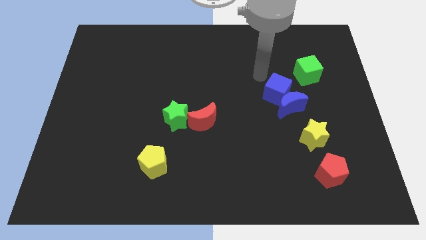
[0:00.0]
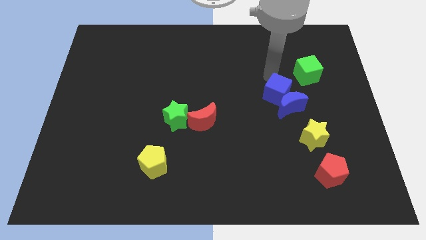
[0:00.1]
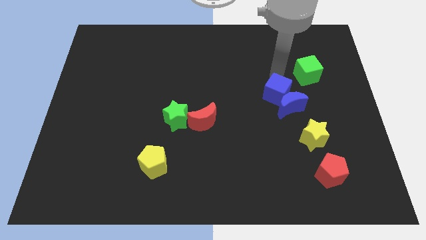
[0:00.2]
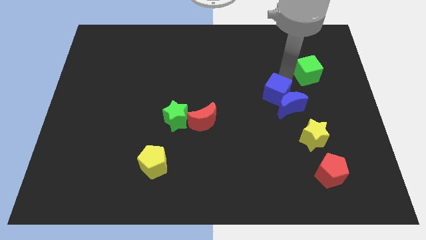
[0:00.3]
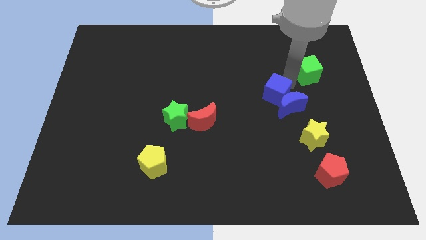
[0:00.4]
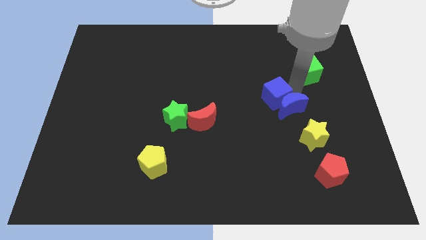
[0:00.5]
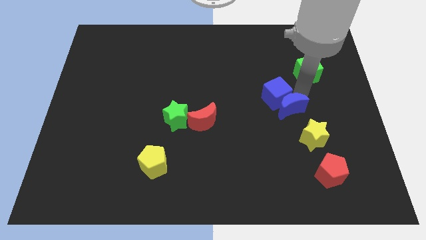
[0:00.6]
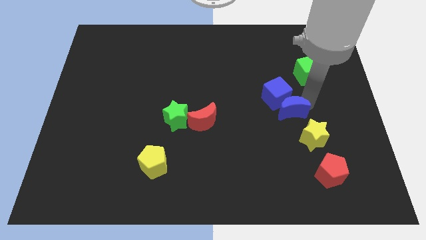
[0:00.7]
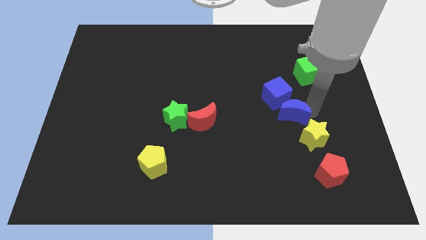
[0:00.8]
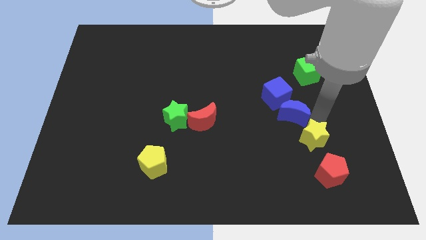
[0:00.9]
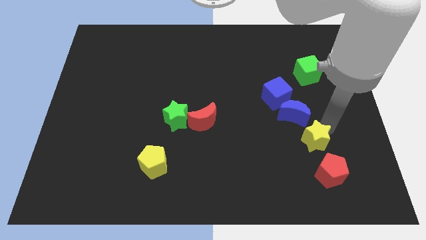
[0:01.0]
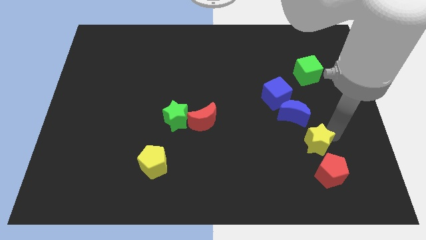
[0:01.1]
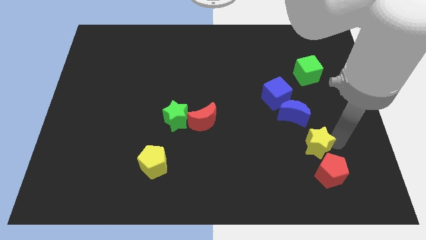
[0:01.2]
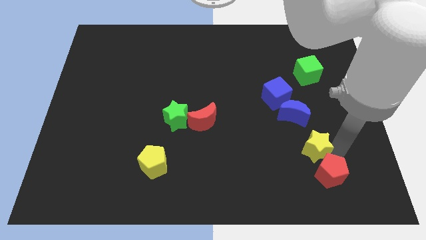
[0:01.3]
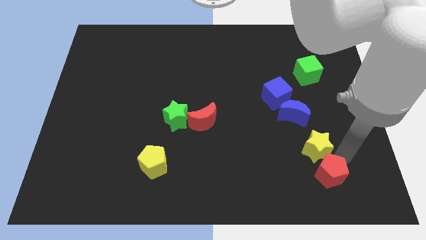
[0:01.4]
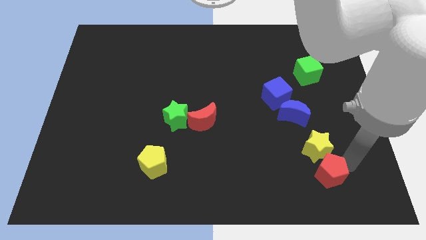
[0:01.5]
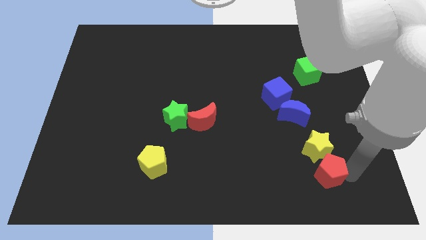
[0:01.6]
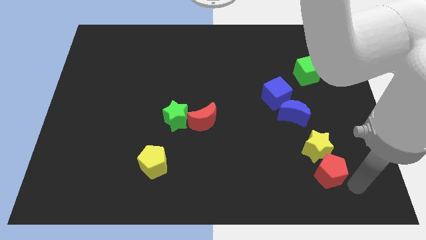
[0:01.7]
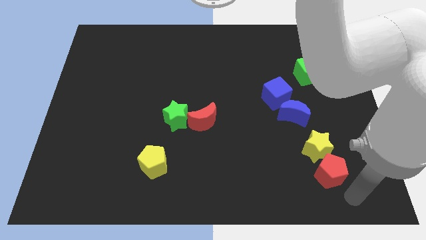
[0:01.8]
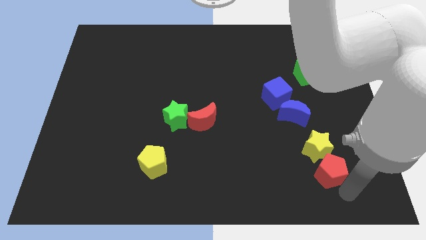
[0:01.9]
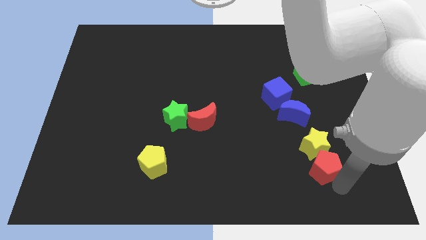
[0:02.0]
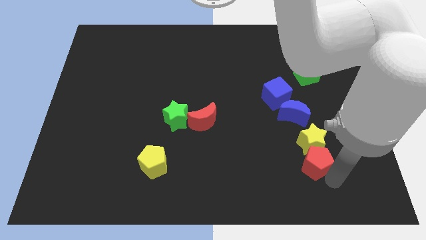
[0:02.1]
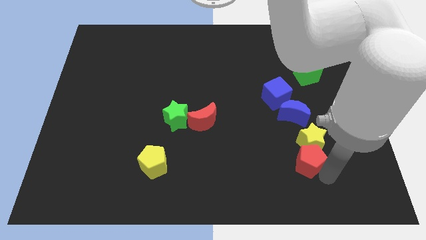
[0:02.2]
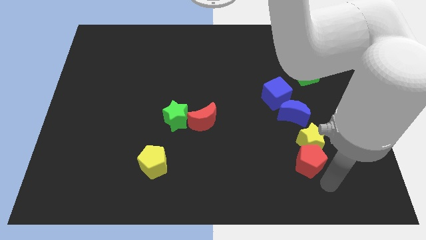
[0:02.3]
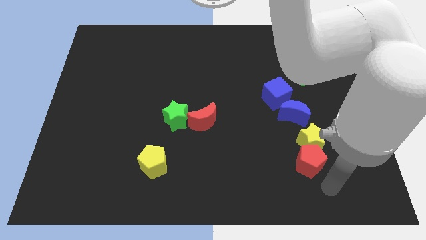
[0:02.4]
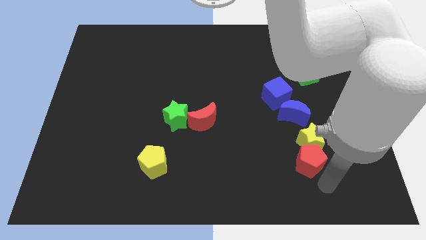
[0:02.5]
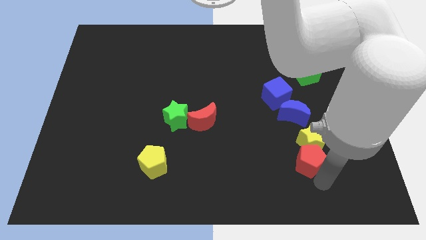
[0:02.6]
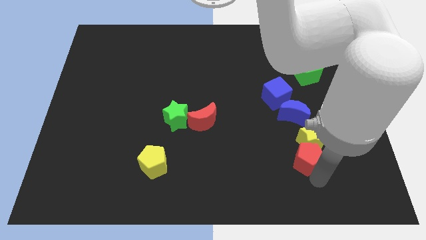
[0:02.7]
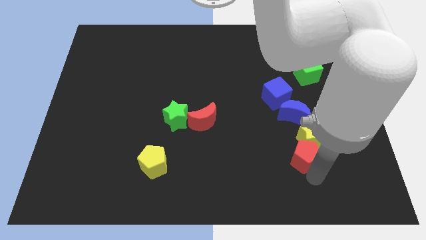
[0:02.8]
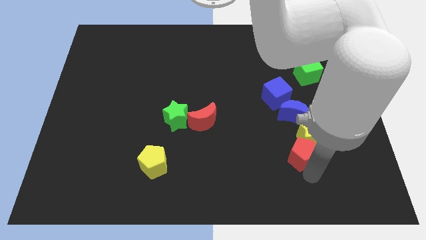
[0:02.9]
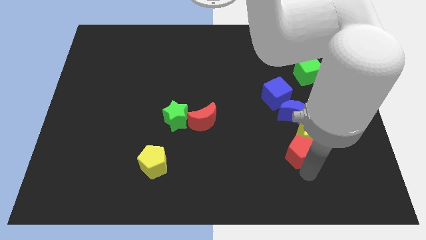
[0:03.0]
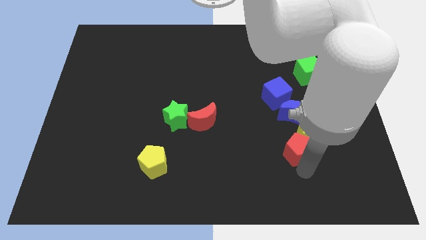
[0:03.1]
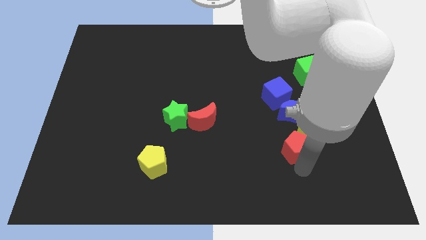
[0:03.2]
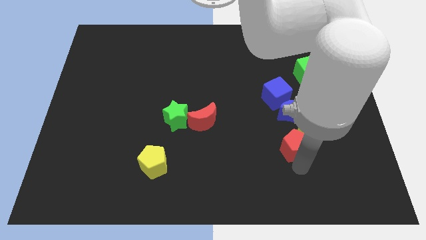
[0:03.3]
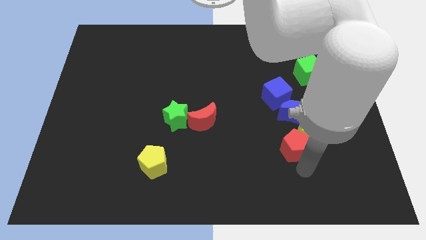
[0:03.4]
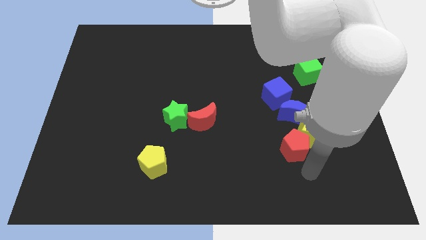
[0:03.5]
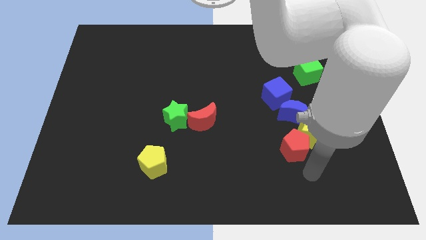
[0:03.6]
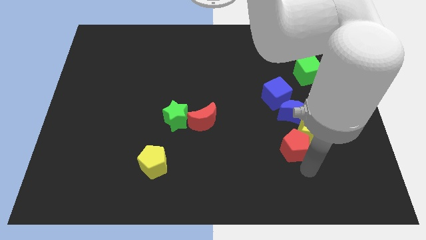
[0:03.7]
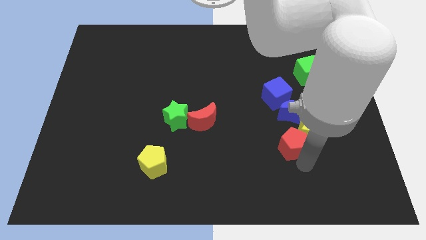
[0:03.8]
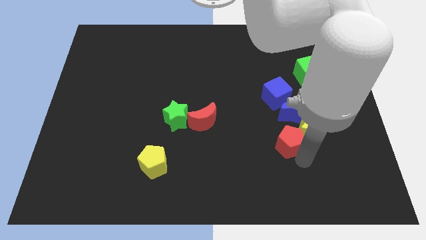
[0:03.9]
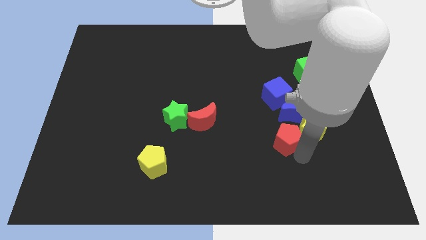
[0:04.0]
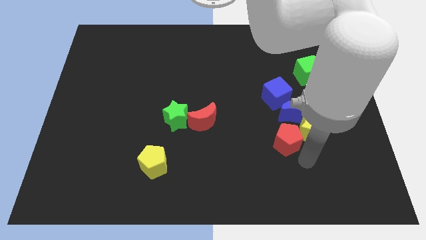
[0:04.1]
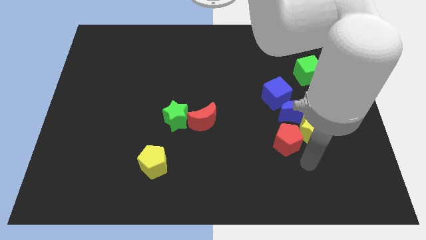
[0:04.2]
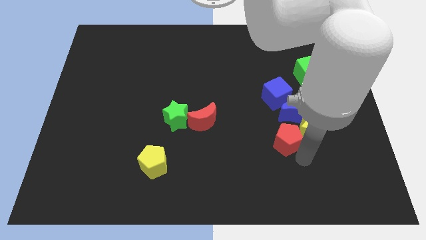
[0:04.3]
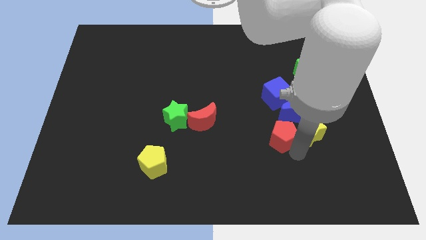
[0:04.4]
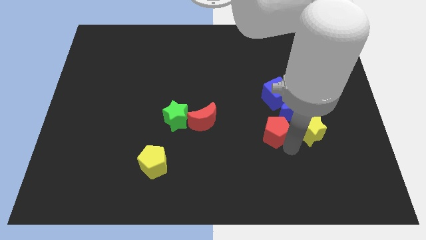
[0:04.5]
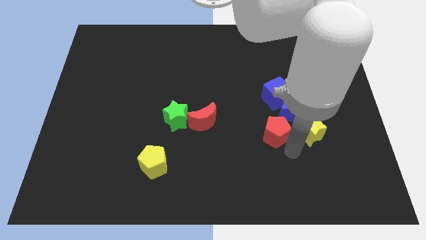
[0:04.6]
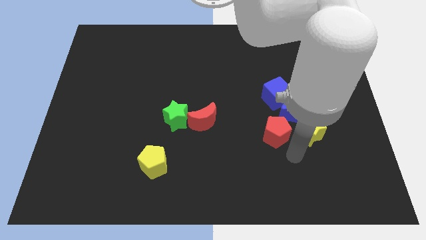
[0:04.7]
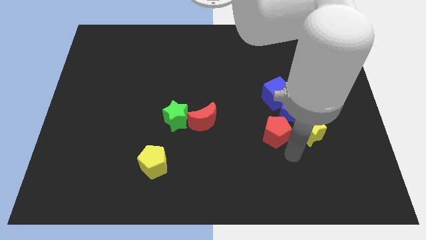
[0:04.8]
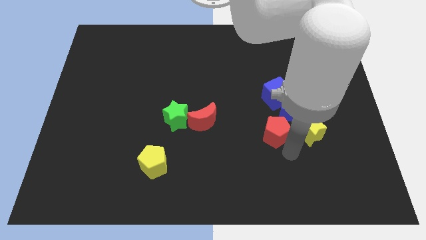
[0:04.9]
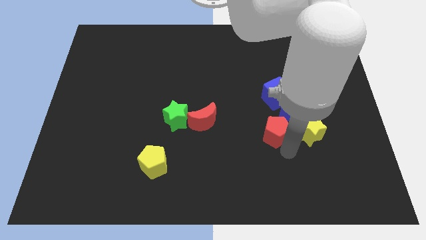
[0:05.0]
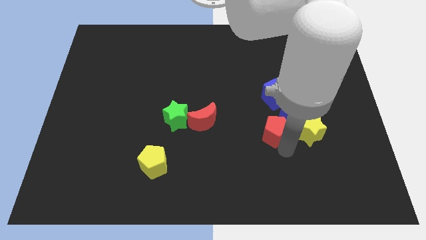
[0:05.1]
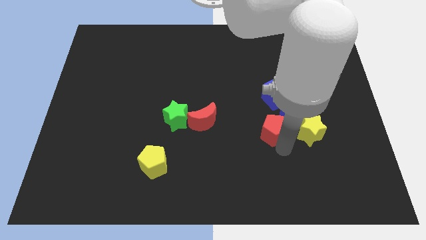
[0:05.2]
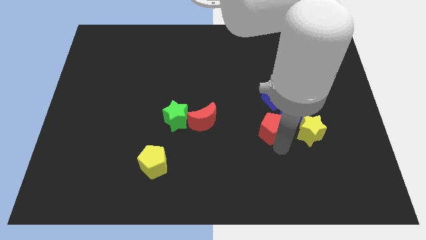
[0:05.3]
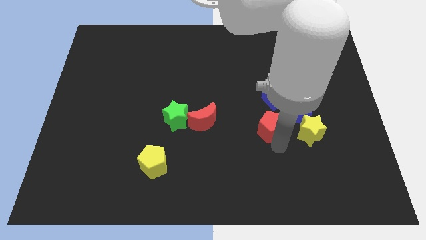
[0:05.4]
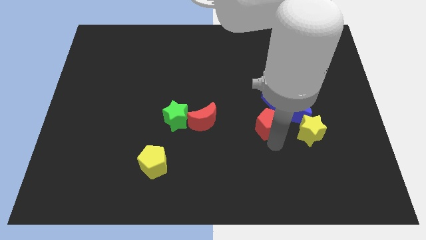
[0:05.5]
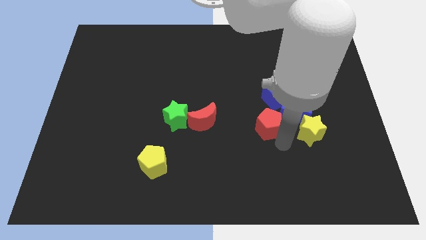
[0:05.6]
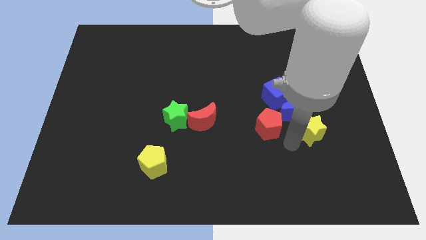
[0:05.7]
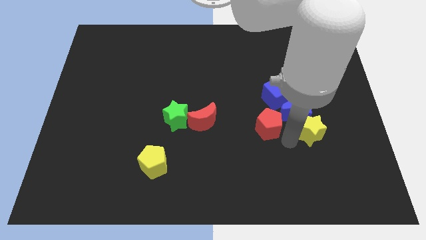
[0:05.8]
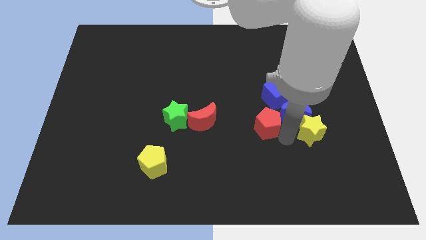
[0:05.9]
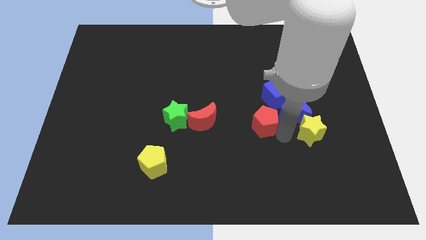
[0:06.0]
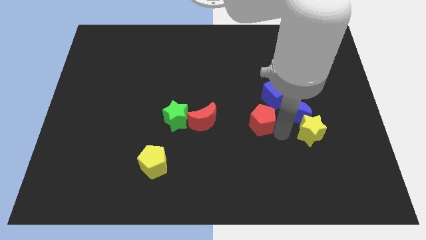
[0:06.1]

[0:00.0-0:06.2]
put the red pentagon to the middle
